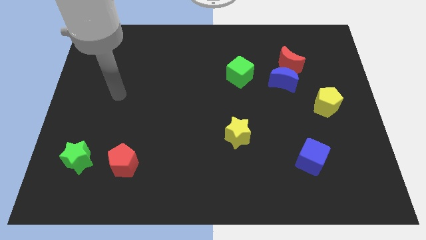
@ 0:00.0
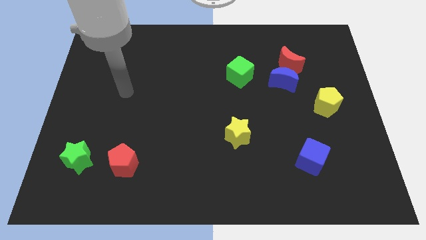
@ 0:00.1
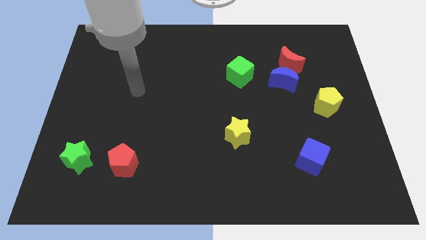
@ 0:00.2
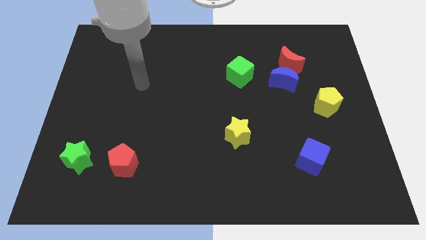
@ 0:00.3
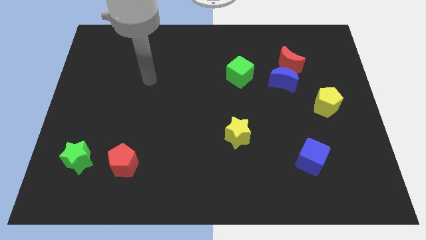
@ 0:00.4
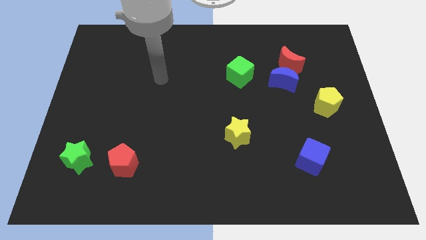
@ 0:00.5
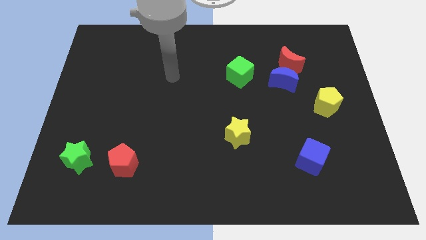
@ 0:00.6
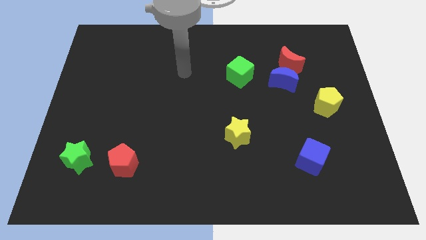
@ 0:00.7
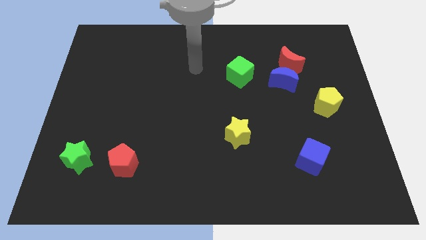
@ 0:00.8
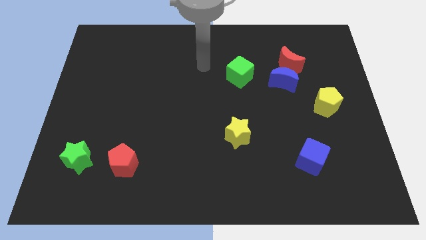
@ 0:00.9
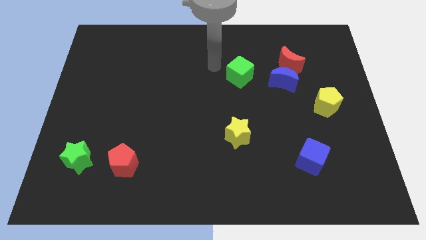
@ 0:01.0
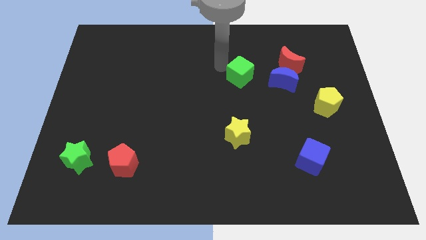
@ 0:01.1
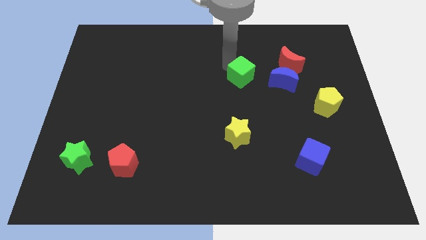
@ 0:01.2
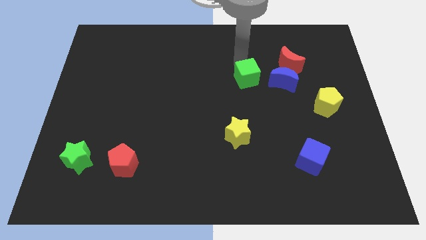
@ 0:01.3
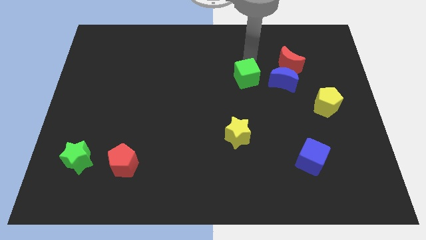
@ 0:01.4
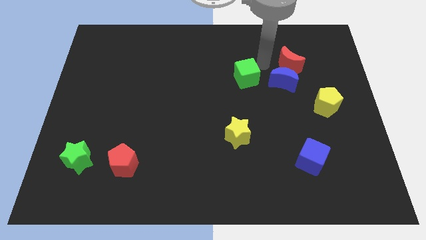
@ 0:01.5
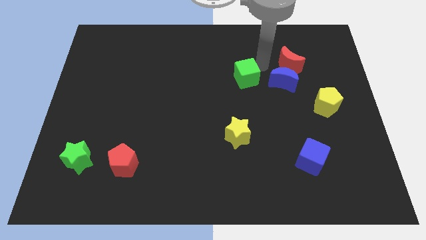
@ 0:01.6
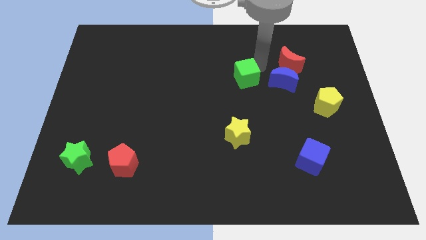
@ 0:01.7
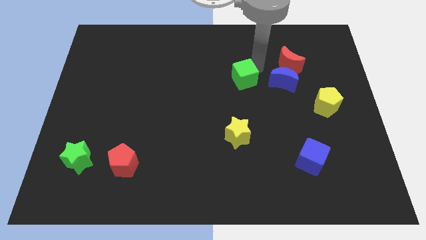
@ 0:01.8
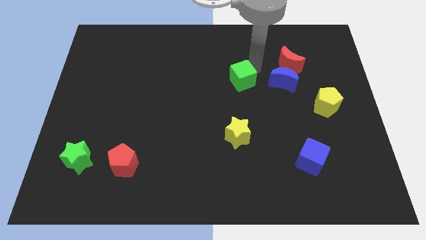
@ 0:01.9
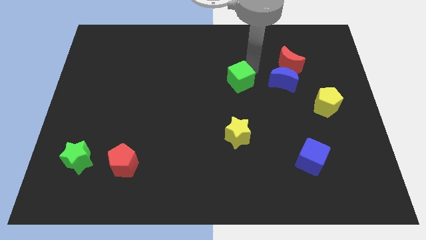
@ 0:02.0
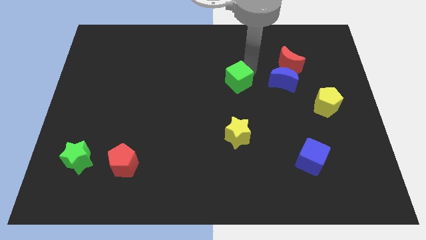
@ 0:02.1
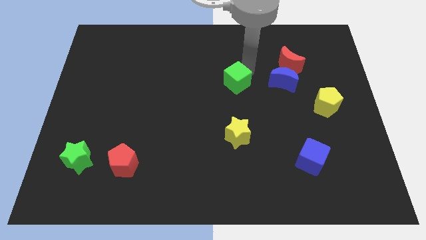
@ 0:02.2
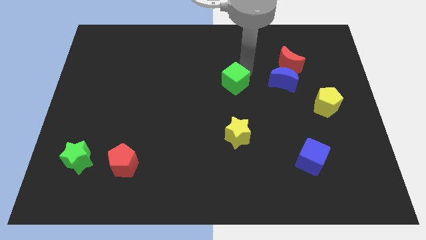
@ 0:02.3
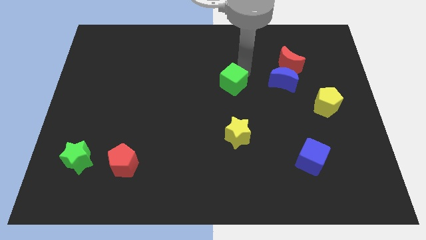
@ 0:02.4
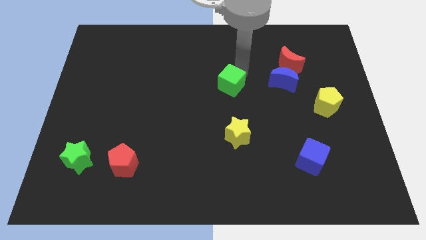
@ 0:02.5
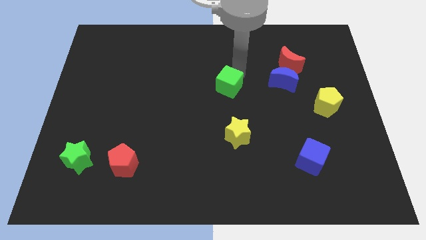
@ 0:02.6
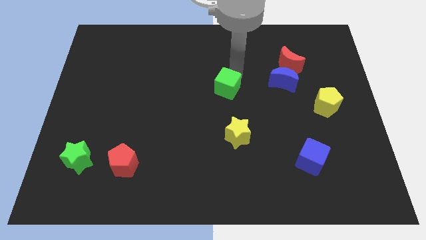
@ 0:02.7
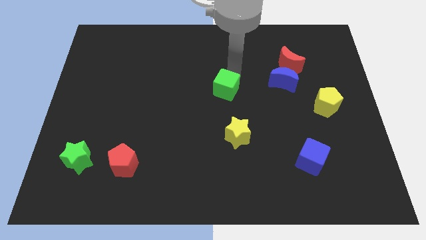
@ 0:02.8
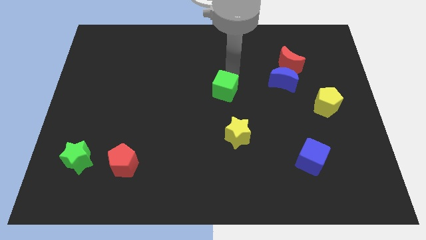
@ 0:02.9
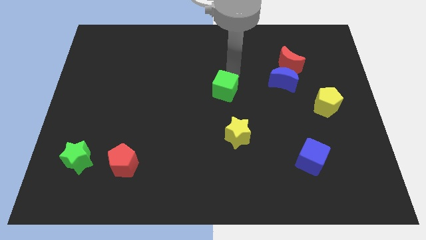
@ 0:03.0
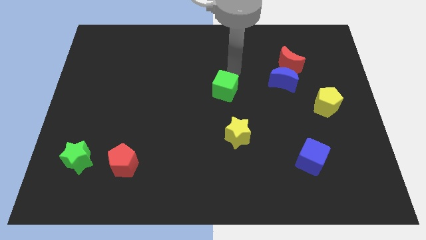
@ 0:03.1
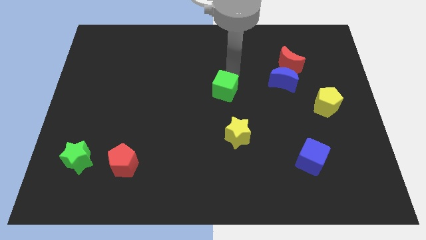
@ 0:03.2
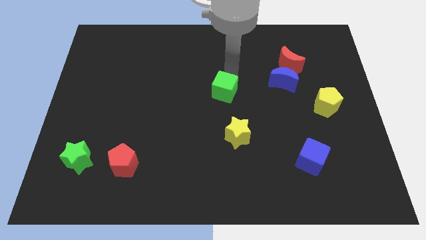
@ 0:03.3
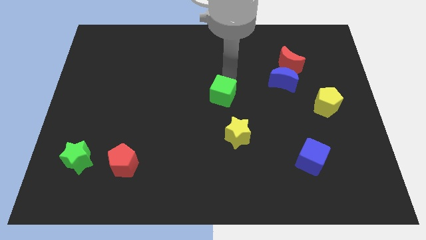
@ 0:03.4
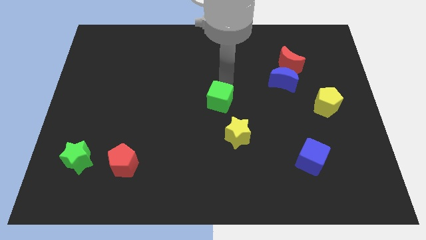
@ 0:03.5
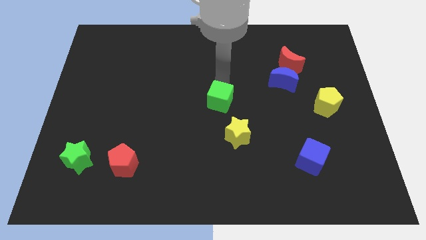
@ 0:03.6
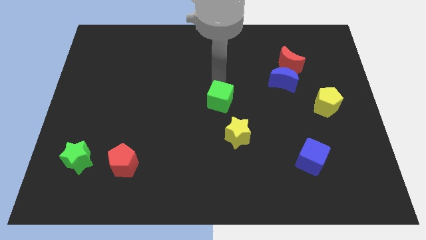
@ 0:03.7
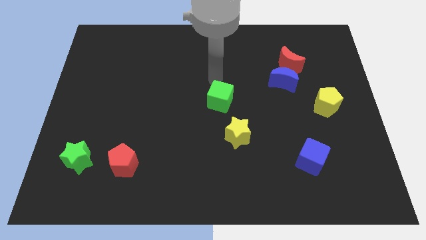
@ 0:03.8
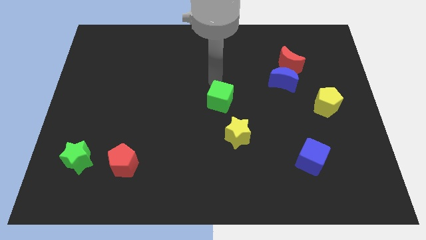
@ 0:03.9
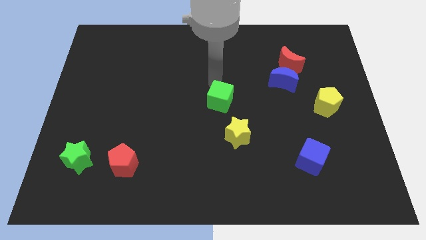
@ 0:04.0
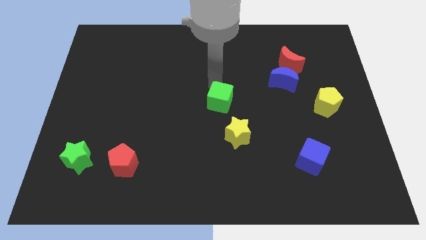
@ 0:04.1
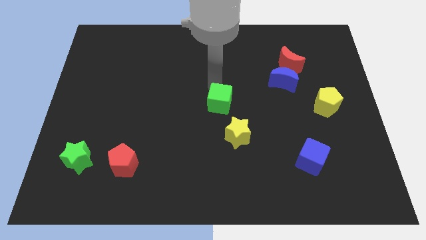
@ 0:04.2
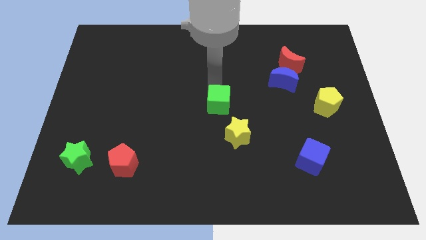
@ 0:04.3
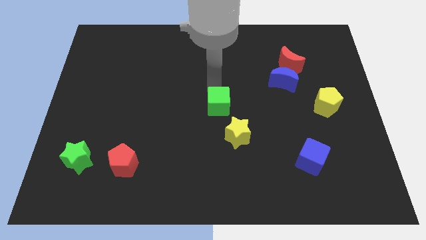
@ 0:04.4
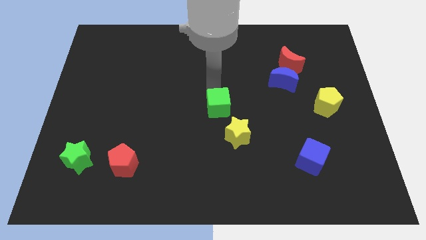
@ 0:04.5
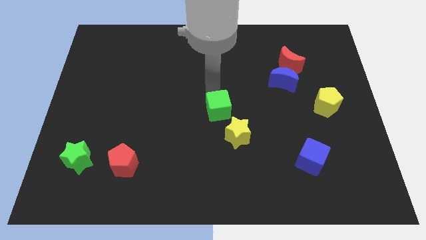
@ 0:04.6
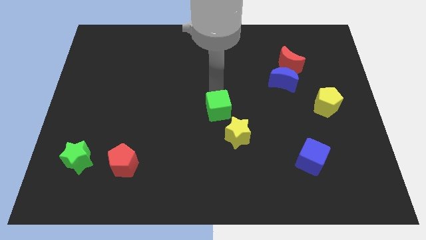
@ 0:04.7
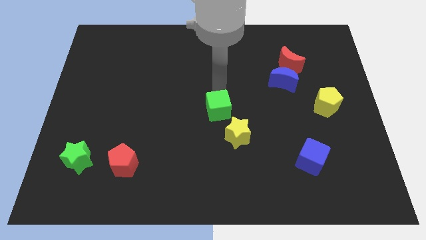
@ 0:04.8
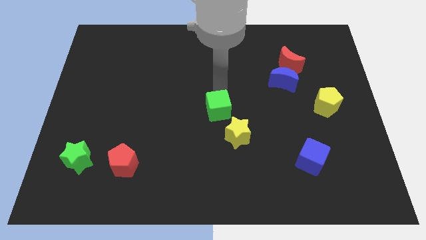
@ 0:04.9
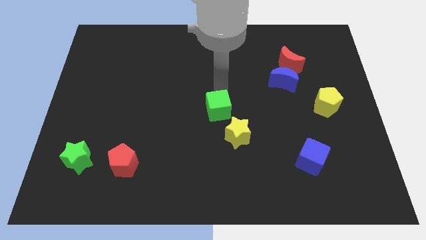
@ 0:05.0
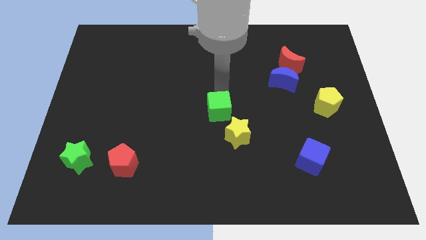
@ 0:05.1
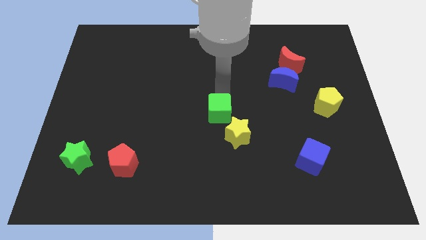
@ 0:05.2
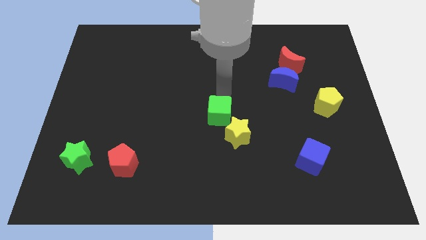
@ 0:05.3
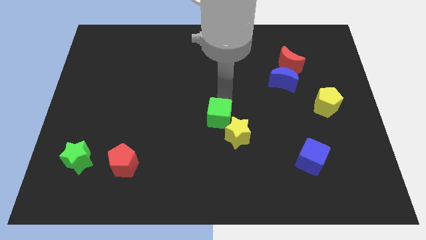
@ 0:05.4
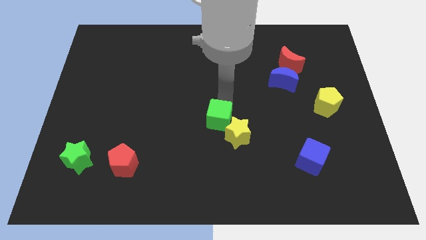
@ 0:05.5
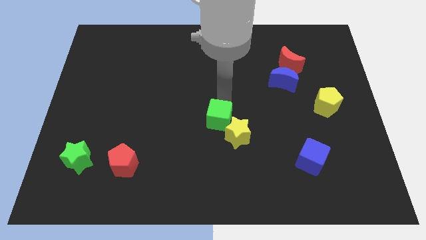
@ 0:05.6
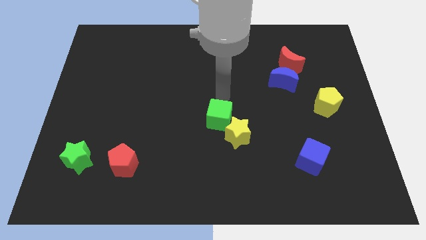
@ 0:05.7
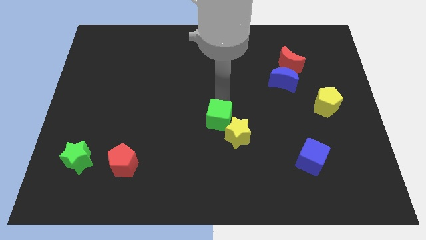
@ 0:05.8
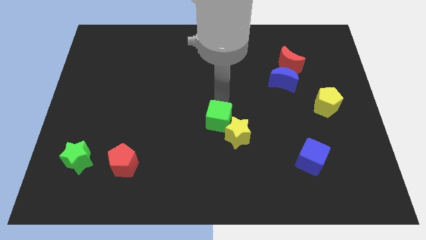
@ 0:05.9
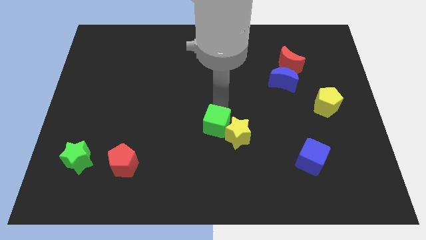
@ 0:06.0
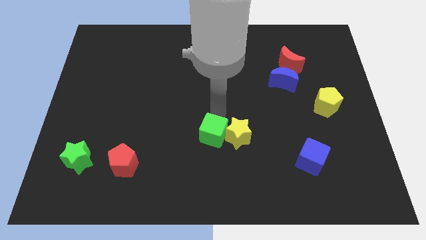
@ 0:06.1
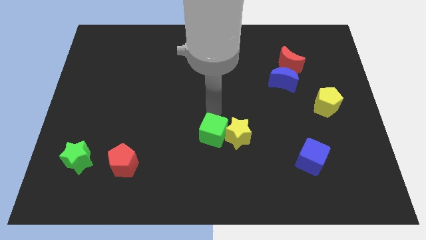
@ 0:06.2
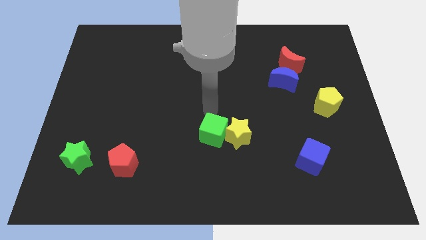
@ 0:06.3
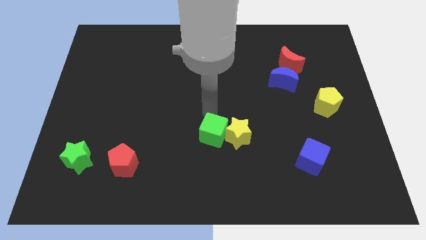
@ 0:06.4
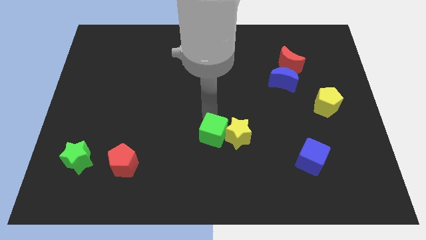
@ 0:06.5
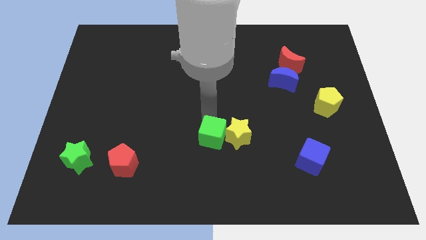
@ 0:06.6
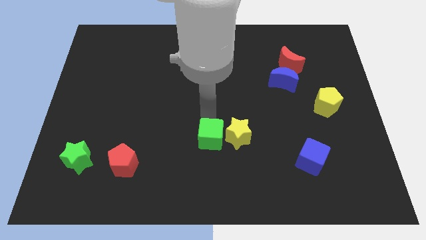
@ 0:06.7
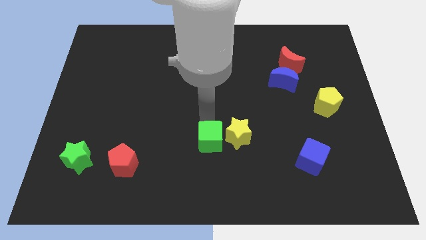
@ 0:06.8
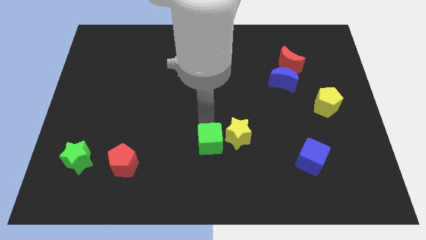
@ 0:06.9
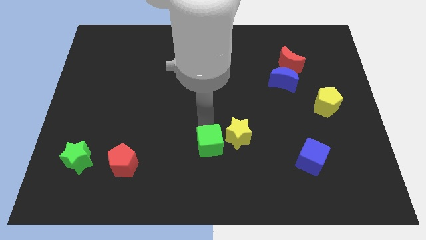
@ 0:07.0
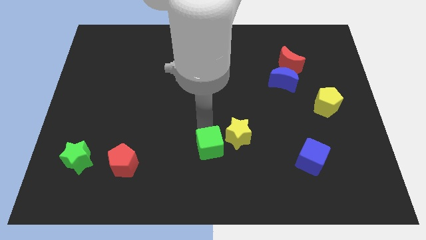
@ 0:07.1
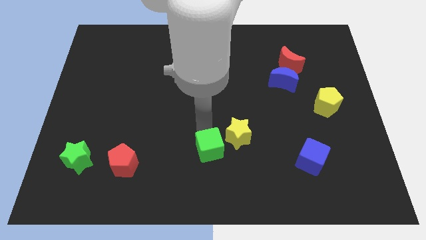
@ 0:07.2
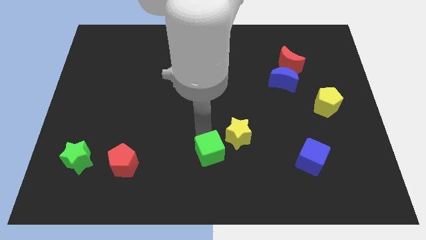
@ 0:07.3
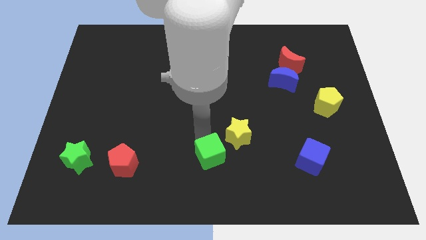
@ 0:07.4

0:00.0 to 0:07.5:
push the green cube to the bottom side

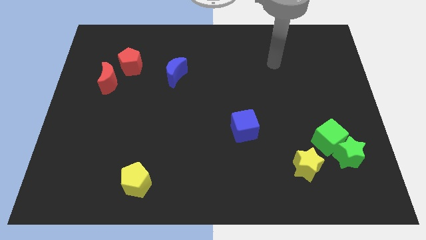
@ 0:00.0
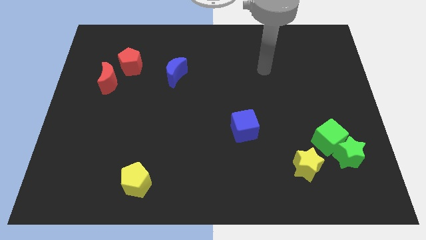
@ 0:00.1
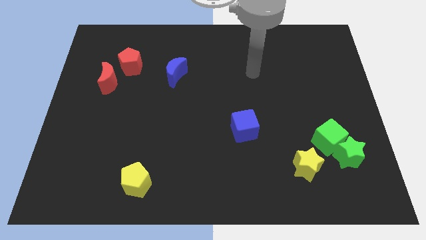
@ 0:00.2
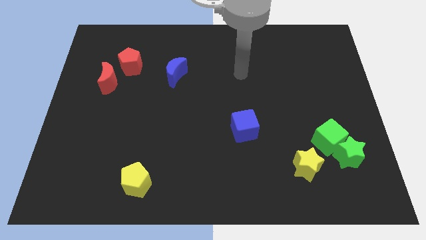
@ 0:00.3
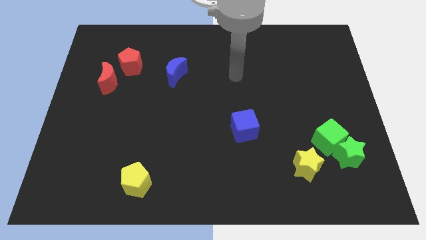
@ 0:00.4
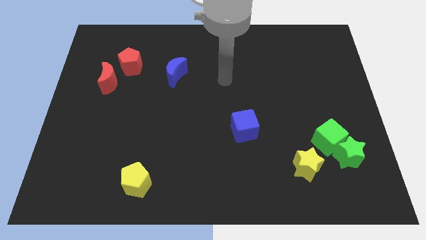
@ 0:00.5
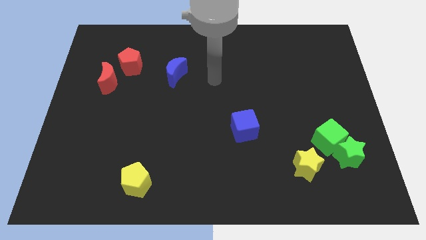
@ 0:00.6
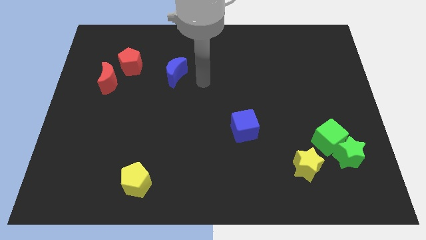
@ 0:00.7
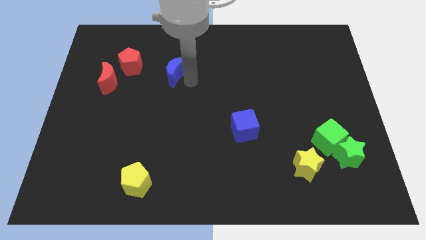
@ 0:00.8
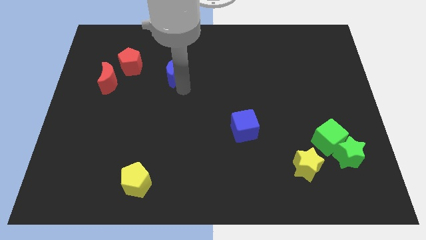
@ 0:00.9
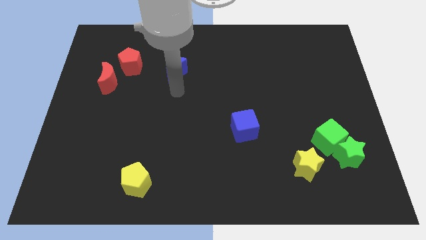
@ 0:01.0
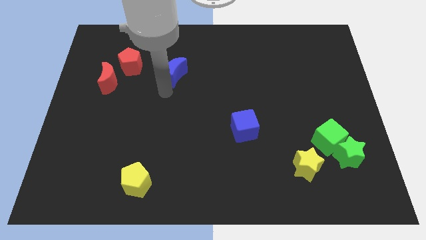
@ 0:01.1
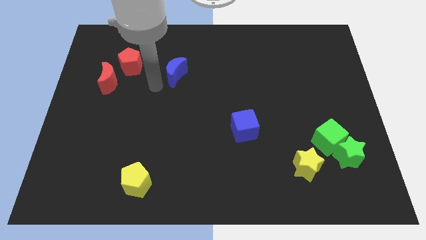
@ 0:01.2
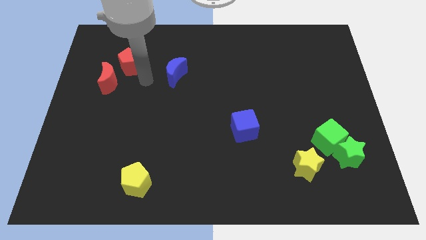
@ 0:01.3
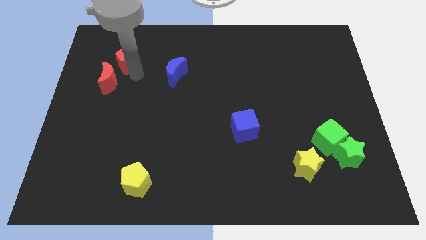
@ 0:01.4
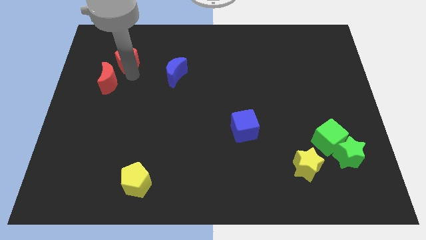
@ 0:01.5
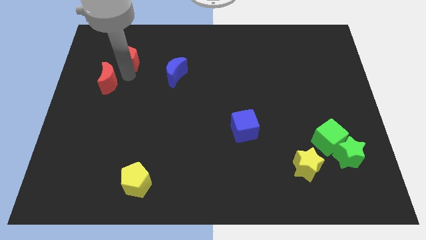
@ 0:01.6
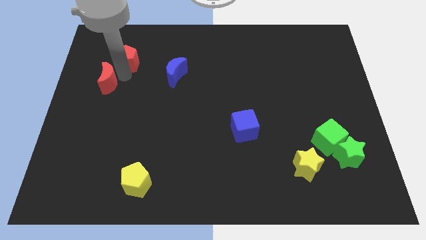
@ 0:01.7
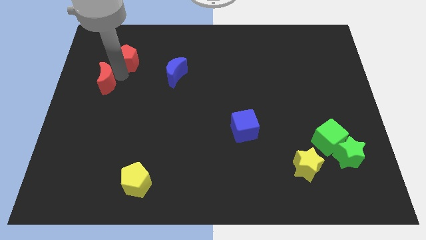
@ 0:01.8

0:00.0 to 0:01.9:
move the red moon to the left side of the board
